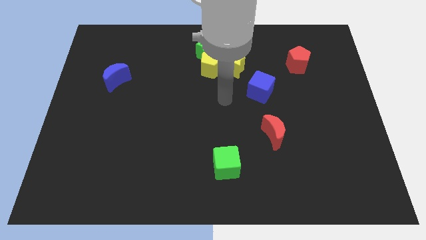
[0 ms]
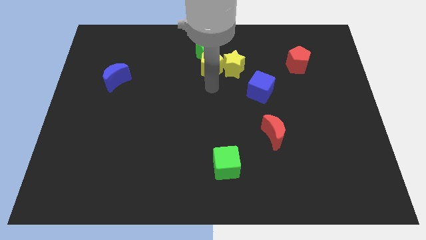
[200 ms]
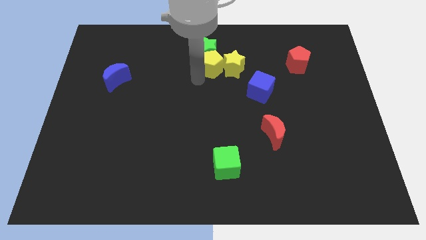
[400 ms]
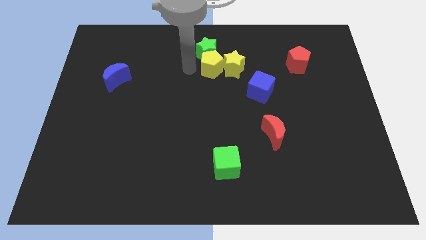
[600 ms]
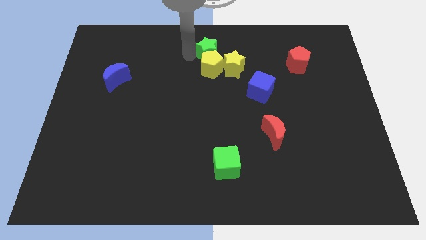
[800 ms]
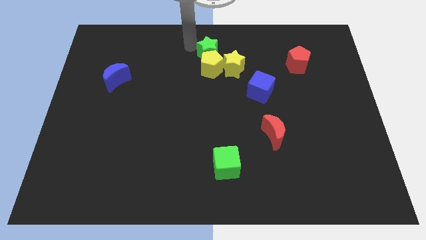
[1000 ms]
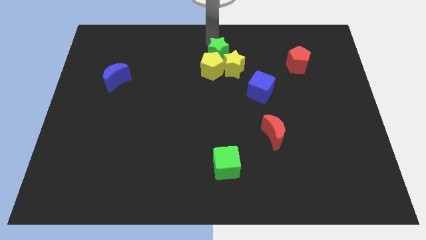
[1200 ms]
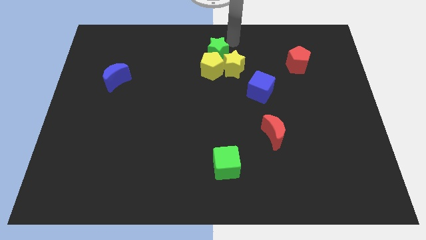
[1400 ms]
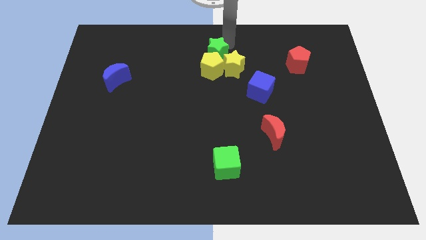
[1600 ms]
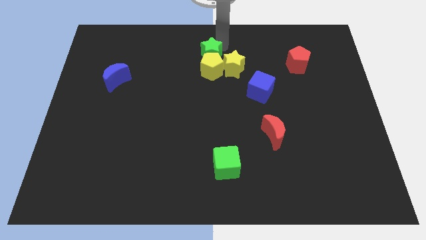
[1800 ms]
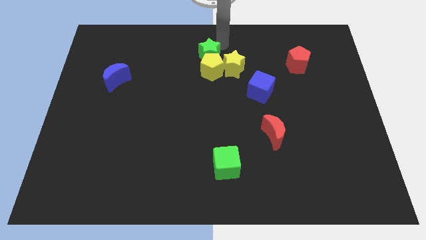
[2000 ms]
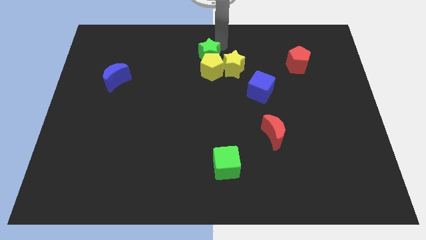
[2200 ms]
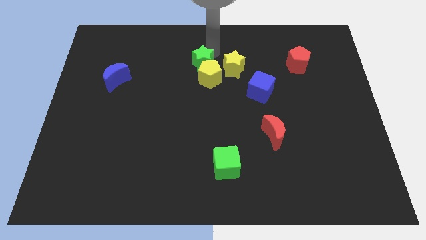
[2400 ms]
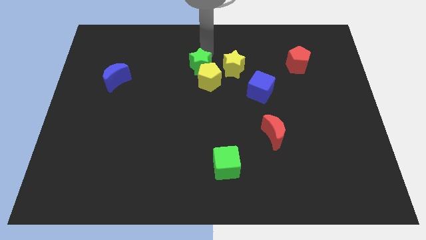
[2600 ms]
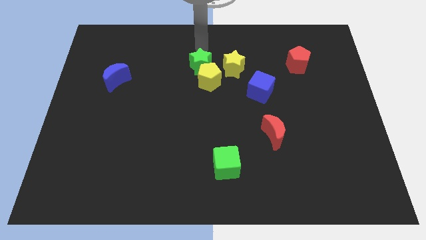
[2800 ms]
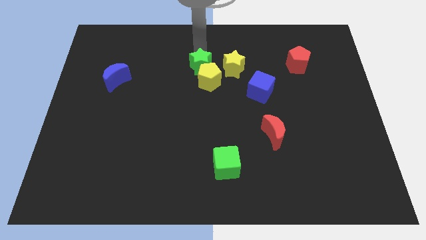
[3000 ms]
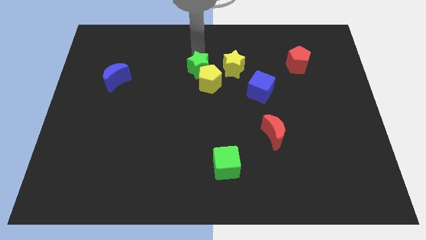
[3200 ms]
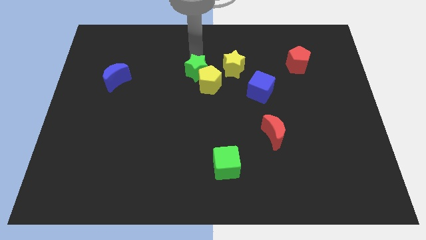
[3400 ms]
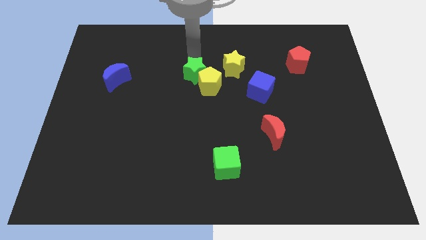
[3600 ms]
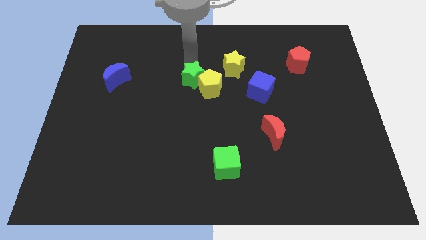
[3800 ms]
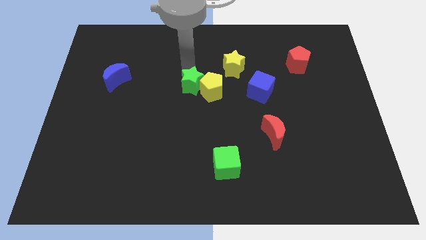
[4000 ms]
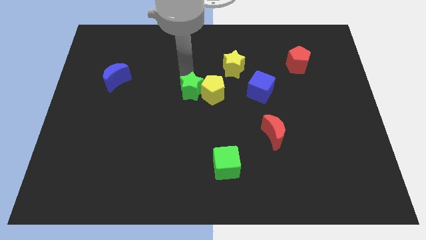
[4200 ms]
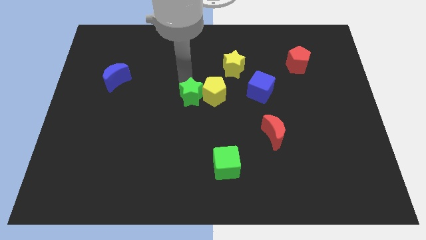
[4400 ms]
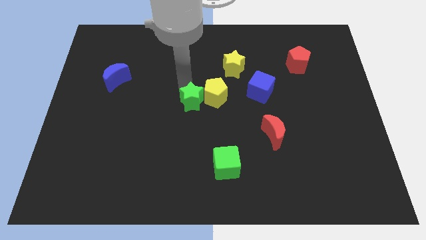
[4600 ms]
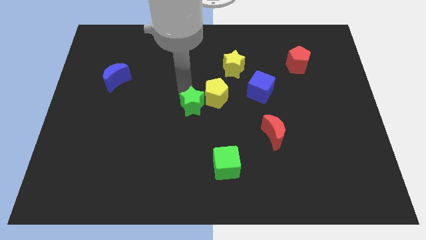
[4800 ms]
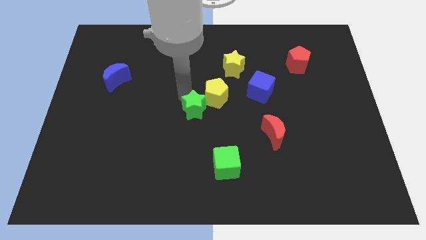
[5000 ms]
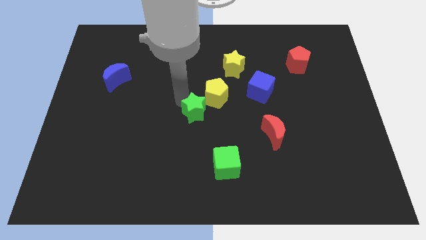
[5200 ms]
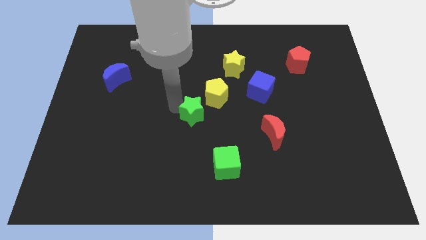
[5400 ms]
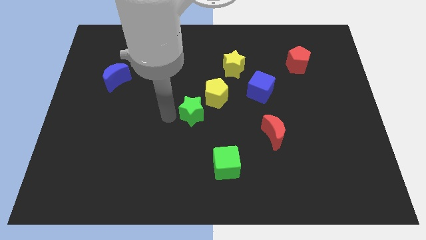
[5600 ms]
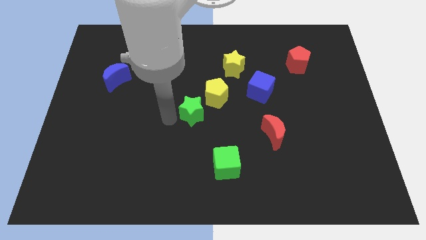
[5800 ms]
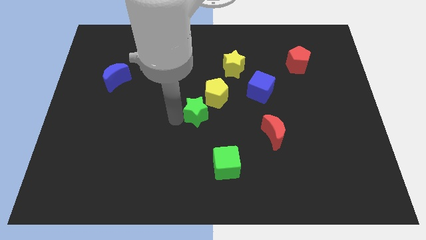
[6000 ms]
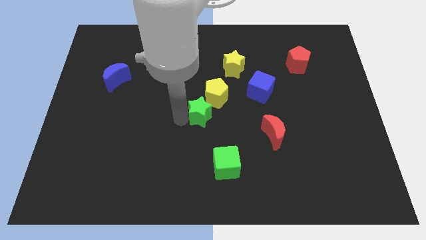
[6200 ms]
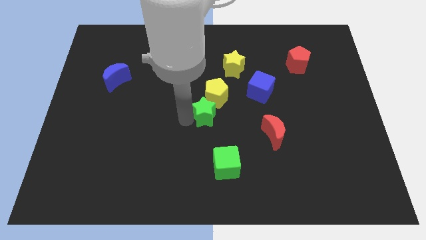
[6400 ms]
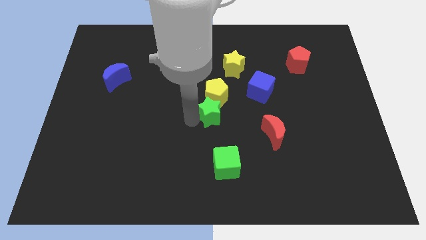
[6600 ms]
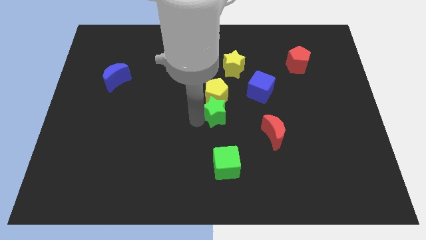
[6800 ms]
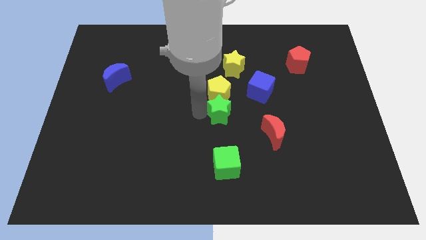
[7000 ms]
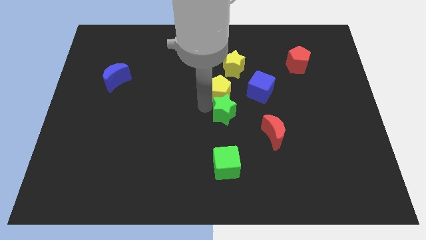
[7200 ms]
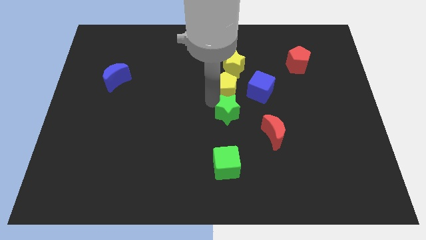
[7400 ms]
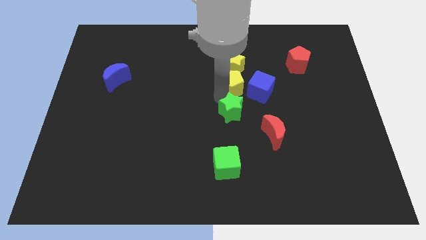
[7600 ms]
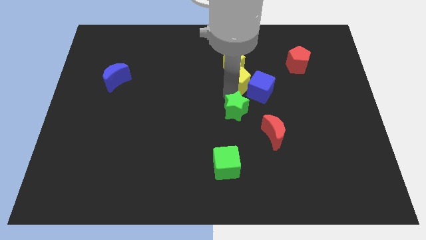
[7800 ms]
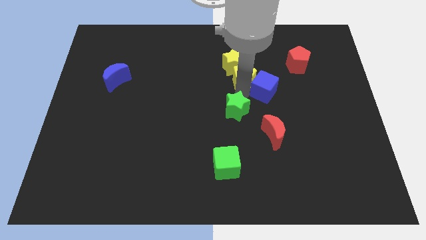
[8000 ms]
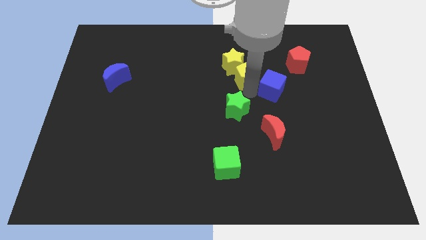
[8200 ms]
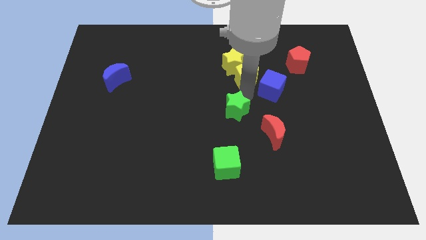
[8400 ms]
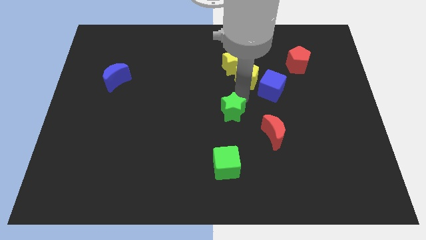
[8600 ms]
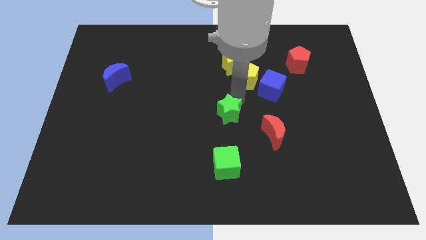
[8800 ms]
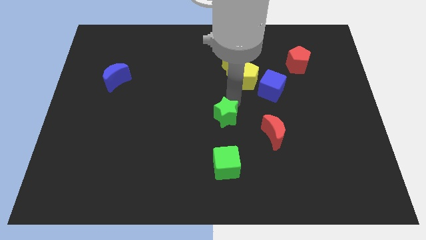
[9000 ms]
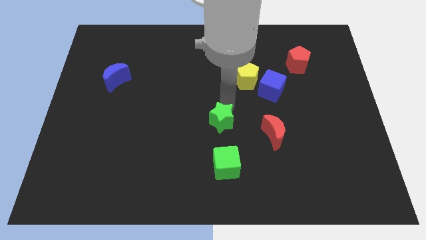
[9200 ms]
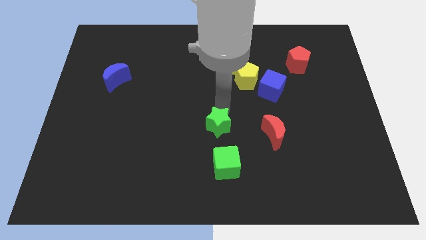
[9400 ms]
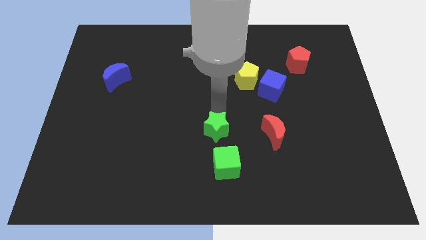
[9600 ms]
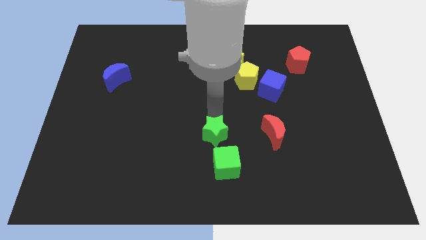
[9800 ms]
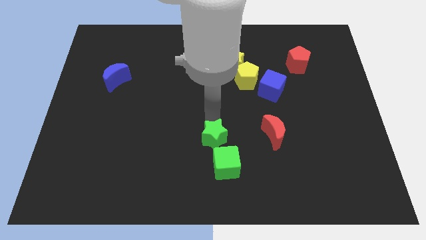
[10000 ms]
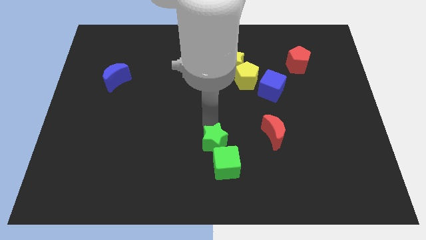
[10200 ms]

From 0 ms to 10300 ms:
slide the green star to the green cube

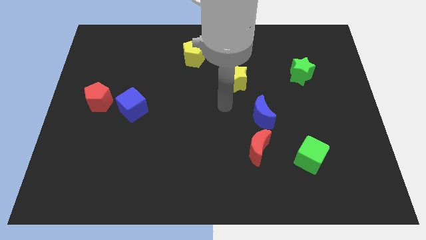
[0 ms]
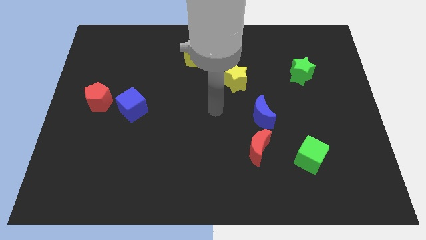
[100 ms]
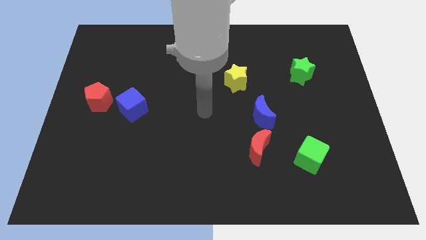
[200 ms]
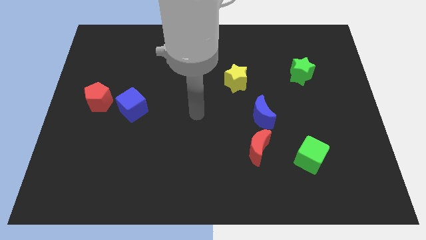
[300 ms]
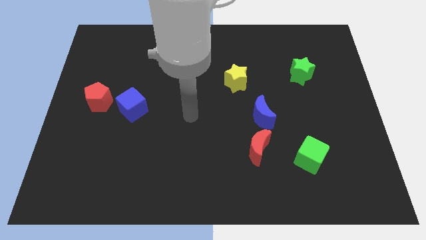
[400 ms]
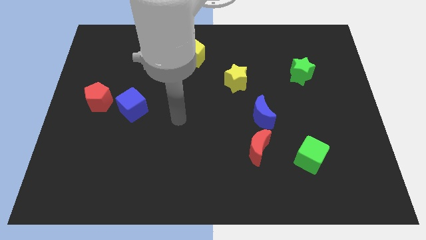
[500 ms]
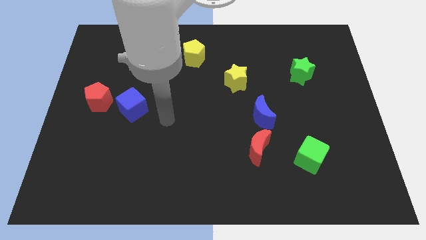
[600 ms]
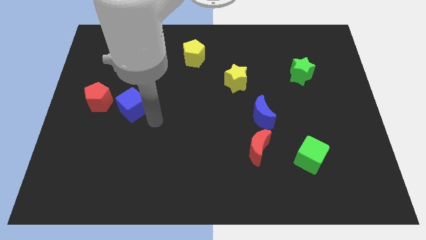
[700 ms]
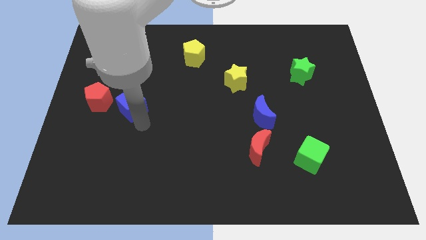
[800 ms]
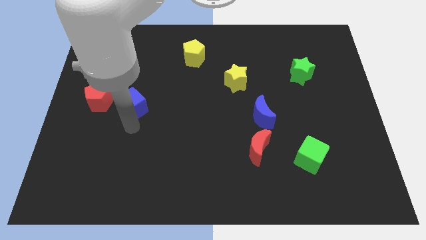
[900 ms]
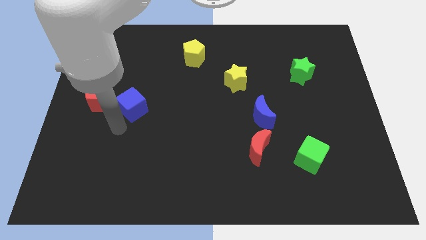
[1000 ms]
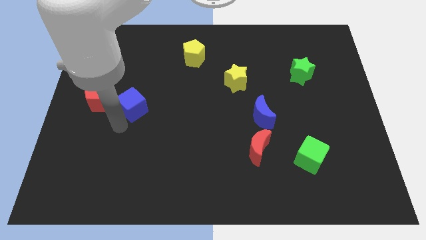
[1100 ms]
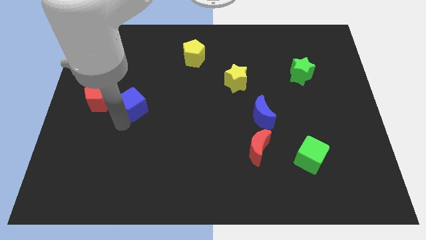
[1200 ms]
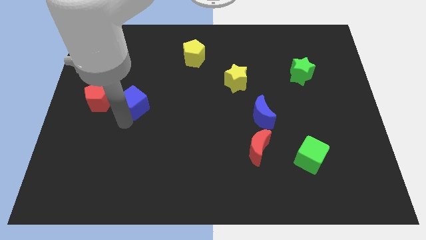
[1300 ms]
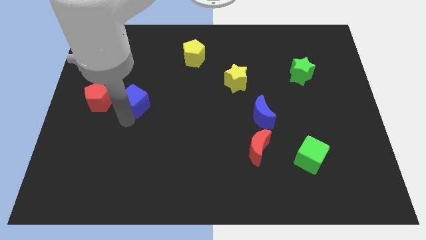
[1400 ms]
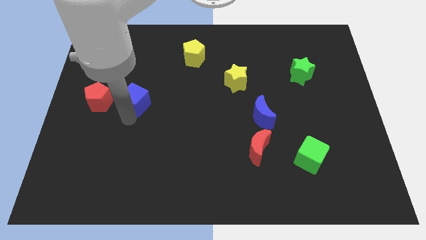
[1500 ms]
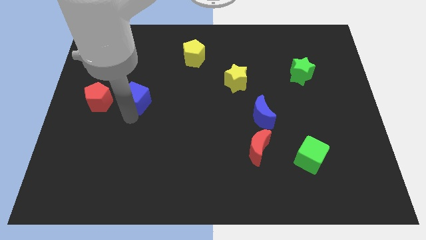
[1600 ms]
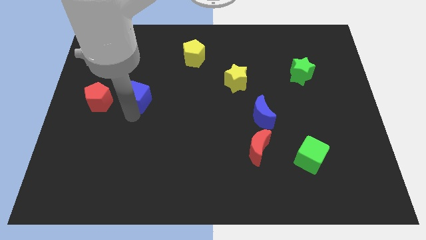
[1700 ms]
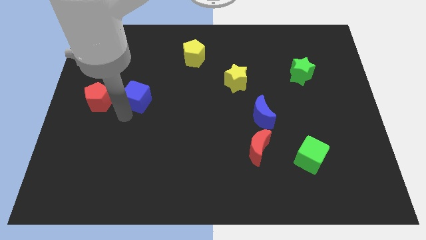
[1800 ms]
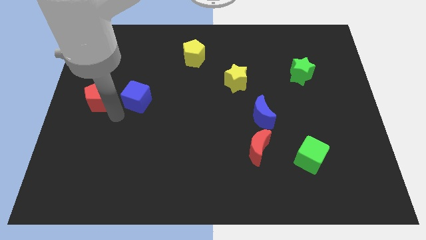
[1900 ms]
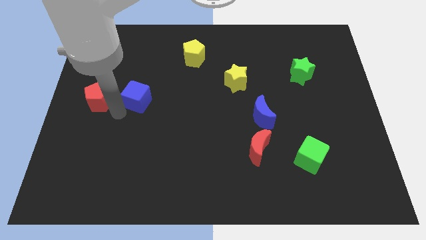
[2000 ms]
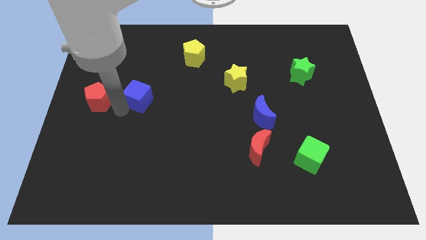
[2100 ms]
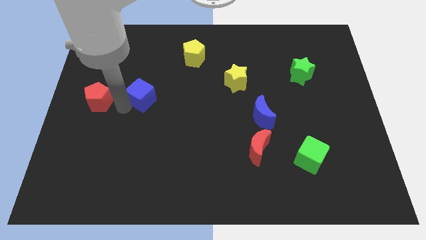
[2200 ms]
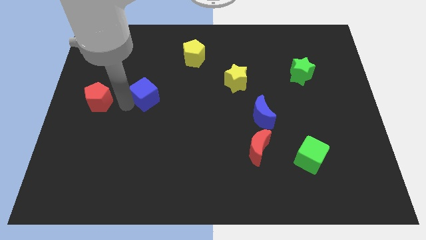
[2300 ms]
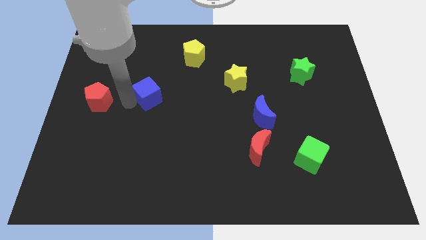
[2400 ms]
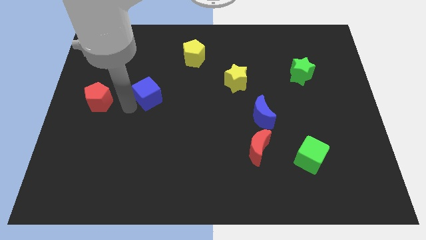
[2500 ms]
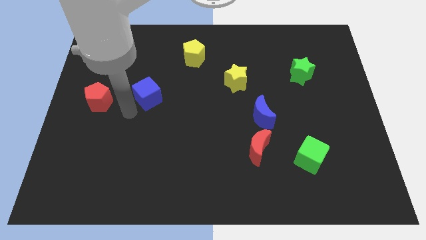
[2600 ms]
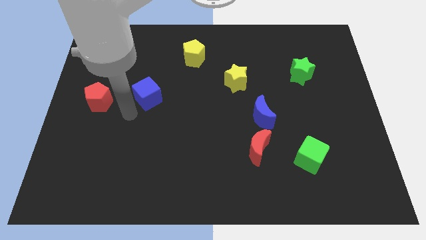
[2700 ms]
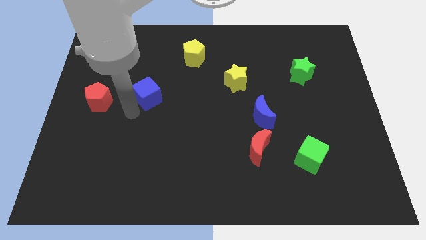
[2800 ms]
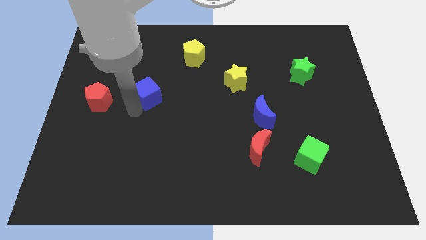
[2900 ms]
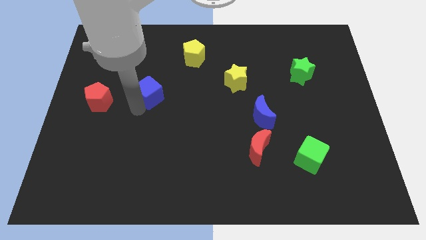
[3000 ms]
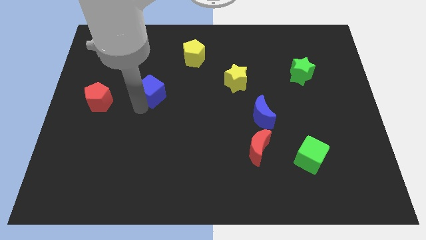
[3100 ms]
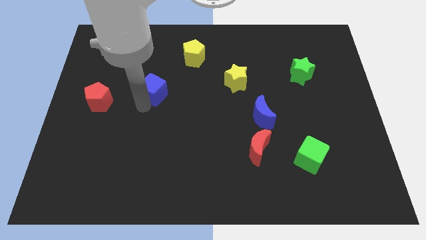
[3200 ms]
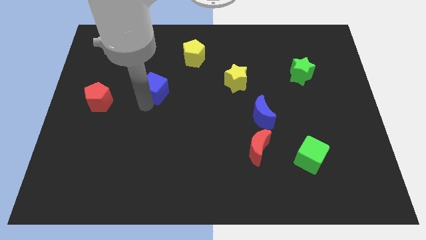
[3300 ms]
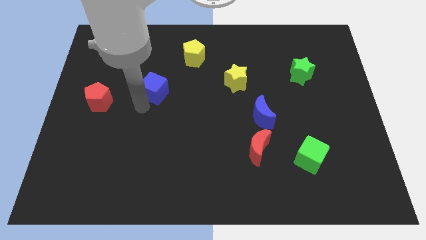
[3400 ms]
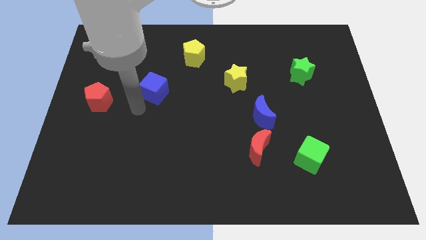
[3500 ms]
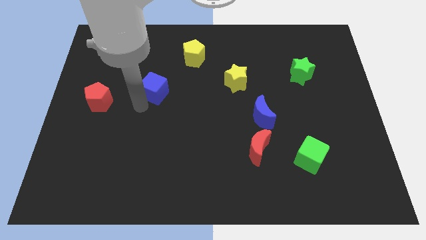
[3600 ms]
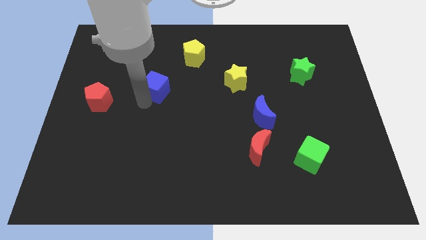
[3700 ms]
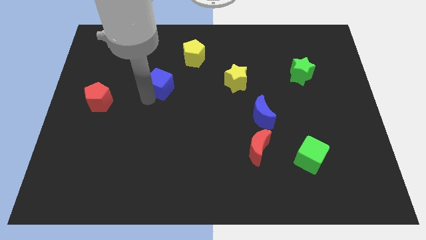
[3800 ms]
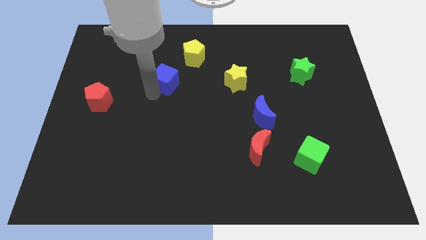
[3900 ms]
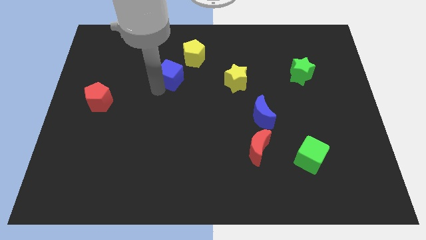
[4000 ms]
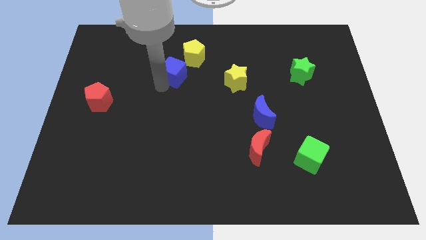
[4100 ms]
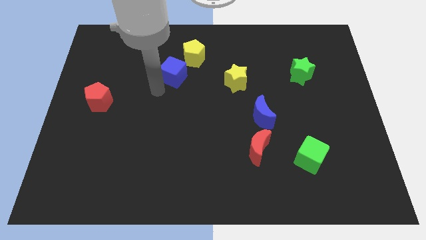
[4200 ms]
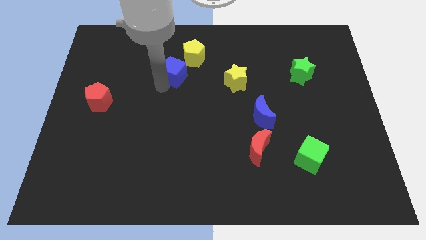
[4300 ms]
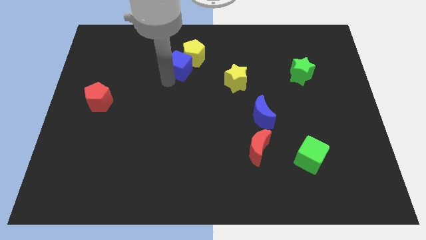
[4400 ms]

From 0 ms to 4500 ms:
put the blue cube to the yellow pentagon
